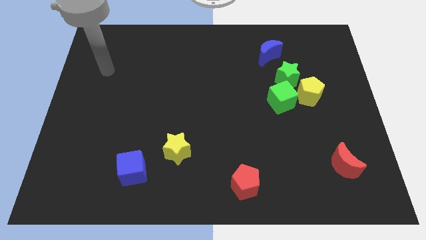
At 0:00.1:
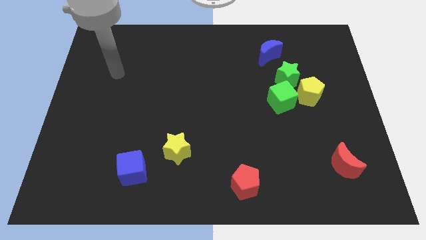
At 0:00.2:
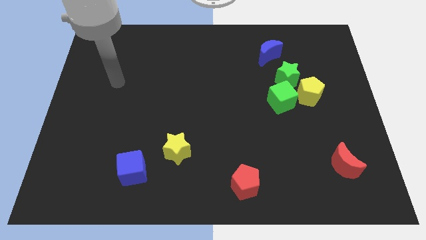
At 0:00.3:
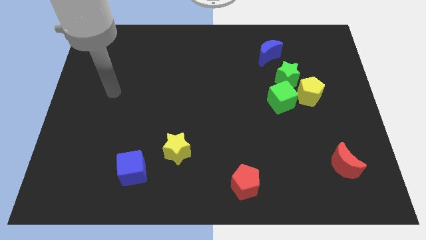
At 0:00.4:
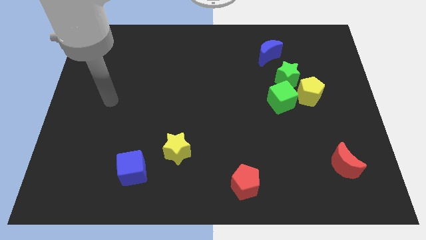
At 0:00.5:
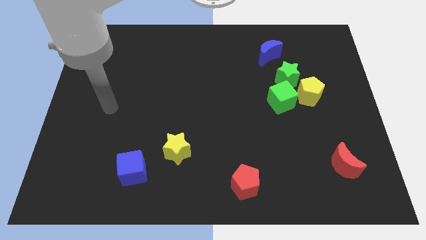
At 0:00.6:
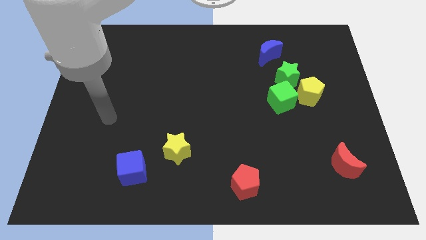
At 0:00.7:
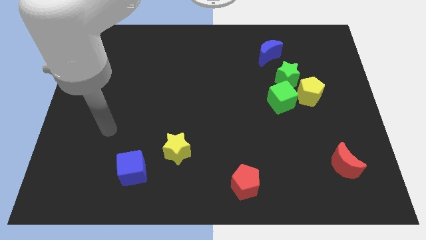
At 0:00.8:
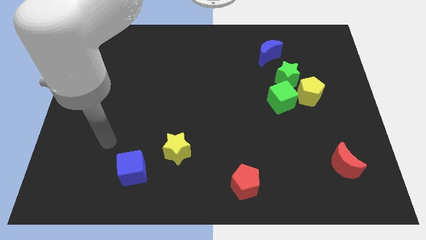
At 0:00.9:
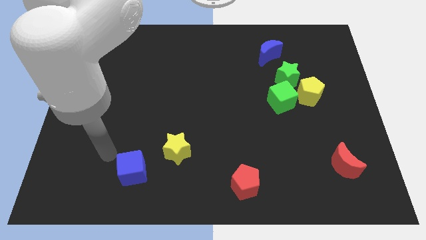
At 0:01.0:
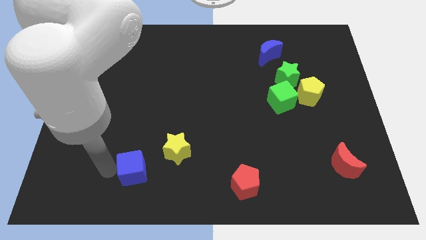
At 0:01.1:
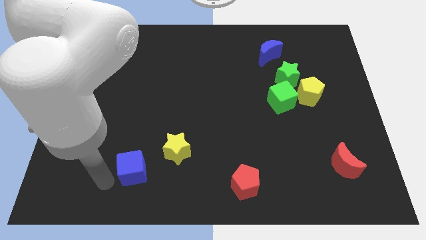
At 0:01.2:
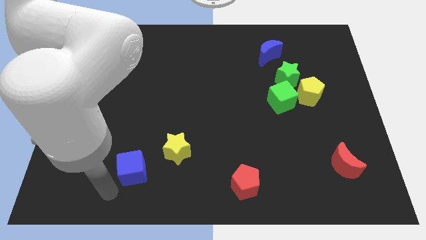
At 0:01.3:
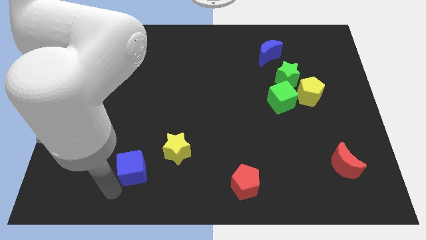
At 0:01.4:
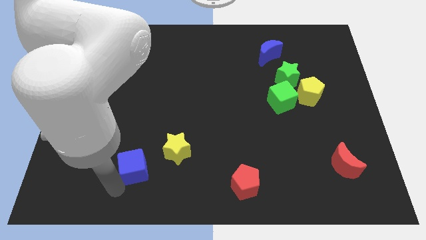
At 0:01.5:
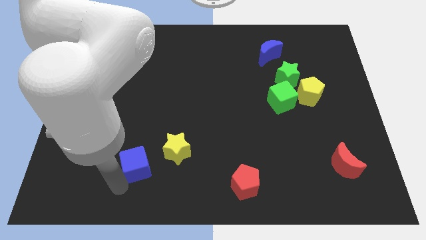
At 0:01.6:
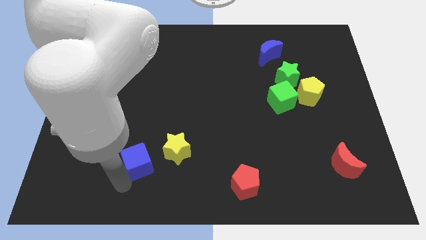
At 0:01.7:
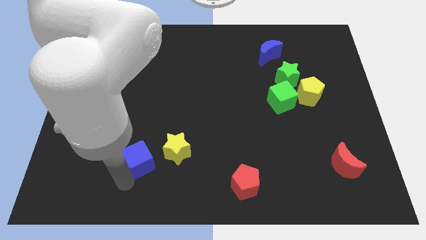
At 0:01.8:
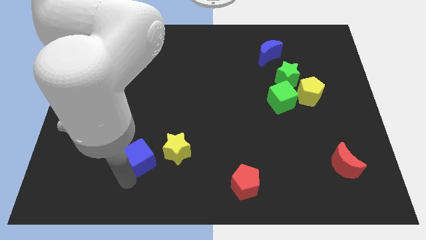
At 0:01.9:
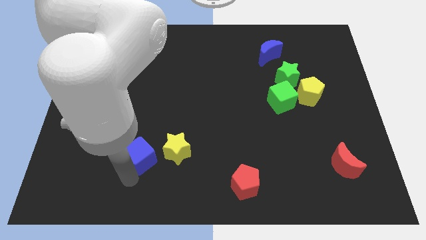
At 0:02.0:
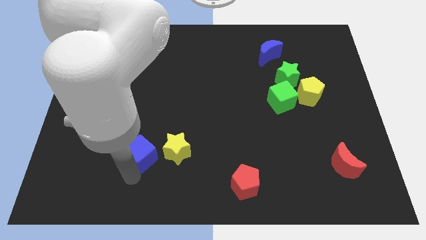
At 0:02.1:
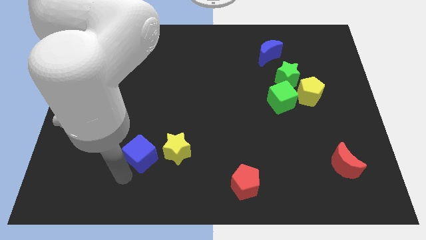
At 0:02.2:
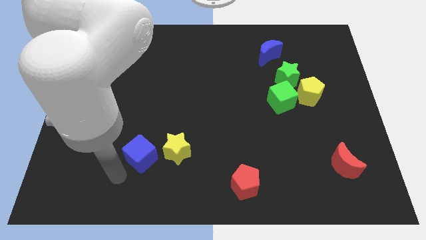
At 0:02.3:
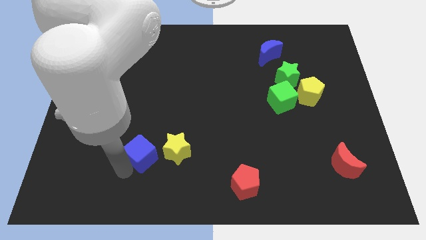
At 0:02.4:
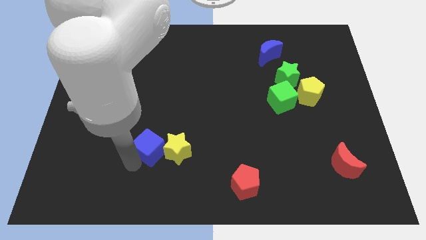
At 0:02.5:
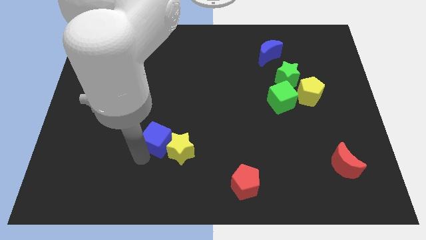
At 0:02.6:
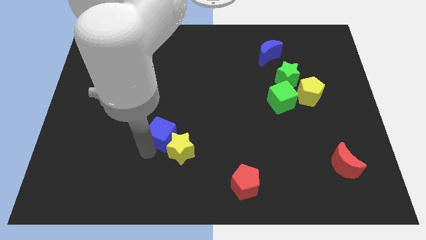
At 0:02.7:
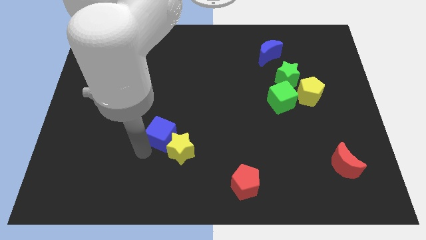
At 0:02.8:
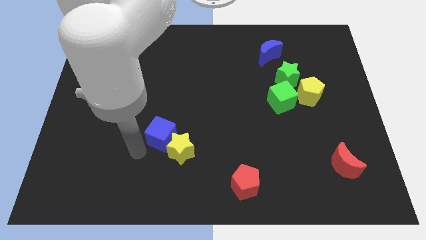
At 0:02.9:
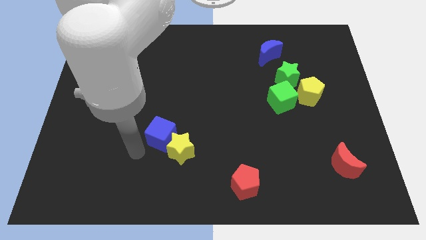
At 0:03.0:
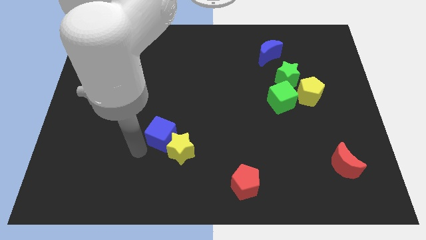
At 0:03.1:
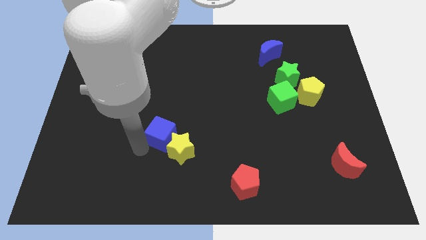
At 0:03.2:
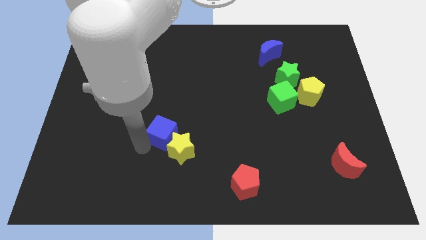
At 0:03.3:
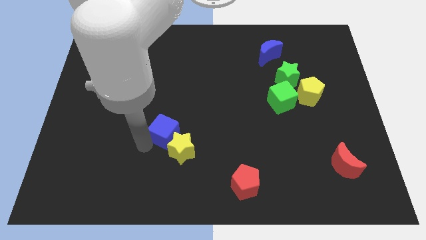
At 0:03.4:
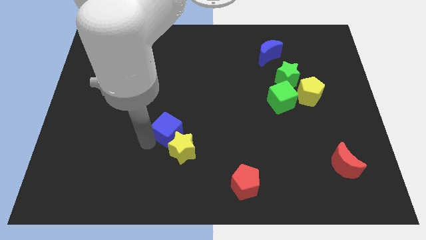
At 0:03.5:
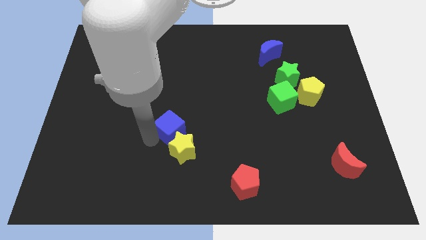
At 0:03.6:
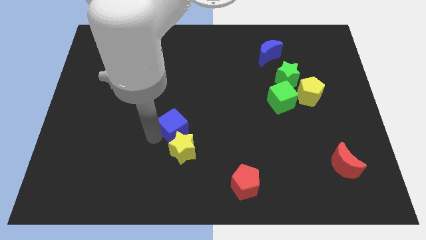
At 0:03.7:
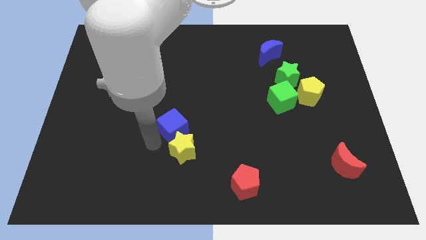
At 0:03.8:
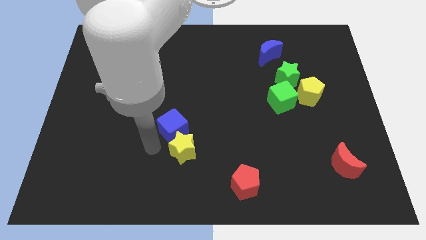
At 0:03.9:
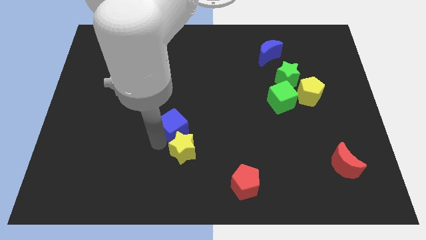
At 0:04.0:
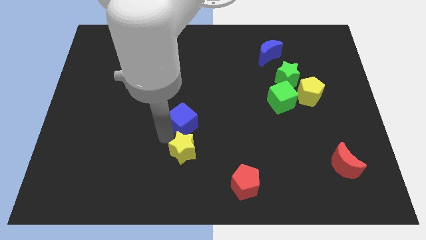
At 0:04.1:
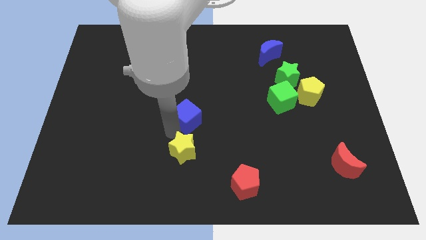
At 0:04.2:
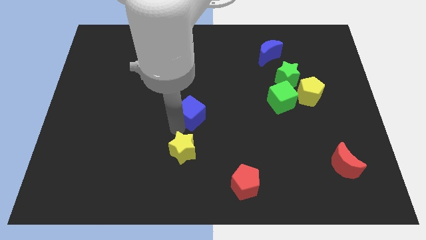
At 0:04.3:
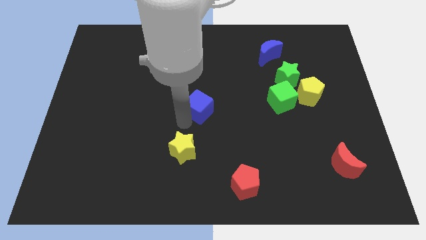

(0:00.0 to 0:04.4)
move the blue cube upwards and right

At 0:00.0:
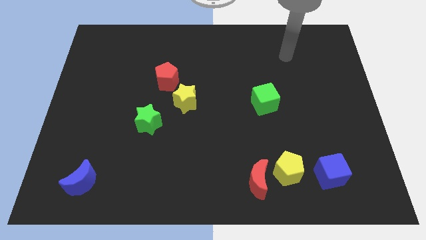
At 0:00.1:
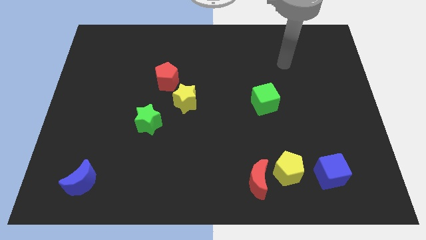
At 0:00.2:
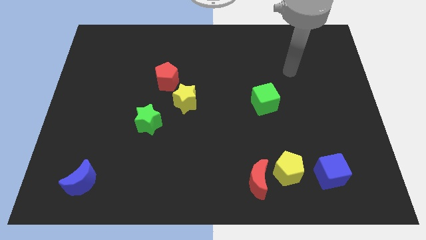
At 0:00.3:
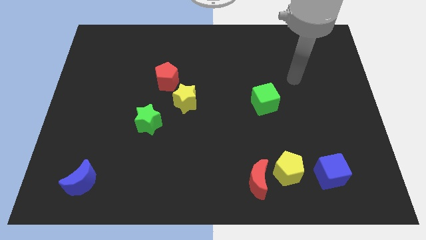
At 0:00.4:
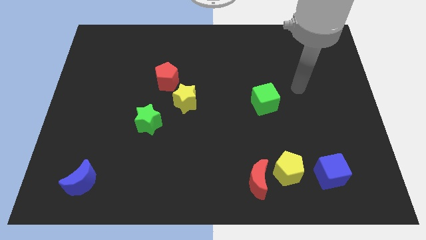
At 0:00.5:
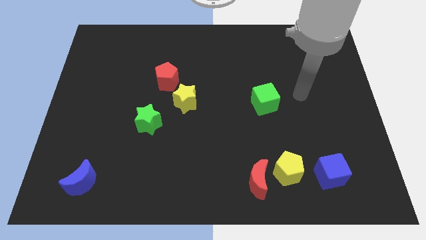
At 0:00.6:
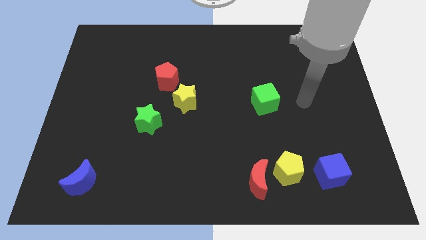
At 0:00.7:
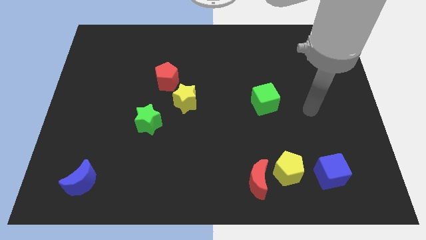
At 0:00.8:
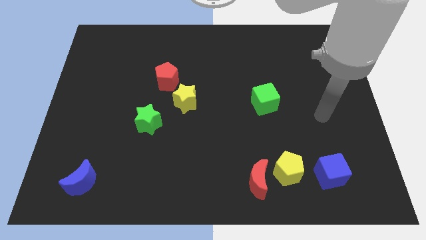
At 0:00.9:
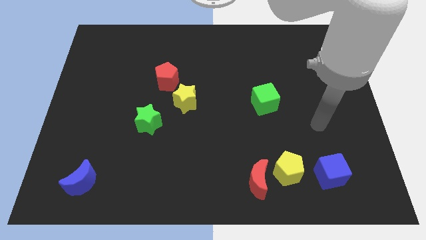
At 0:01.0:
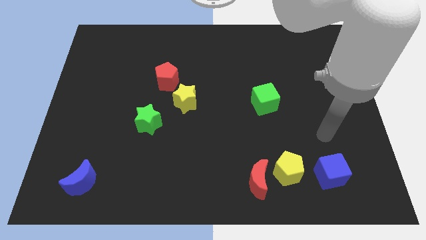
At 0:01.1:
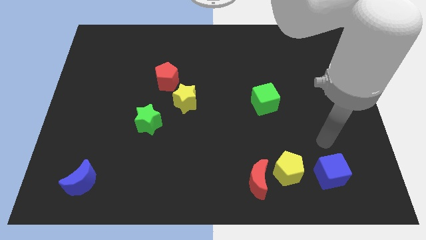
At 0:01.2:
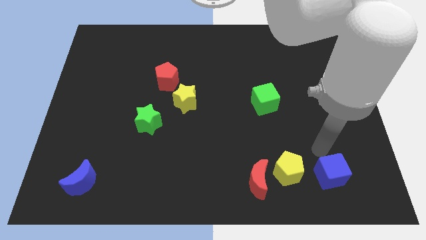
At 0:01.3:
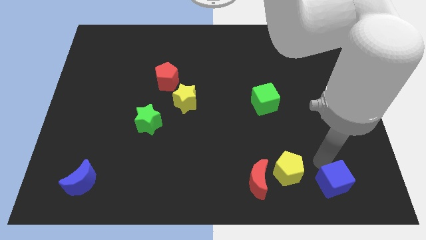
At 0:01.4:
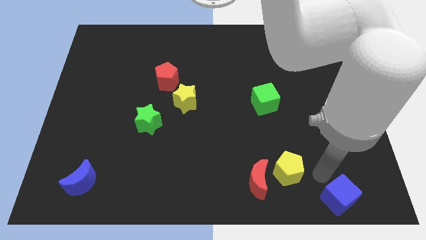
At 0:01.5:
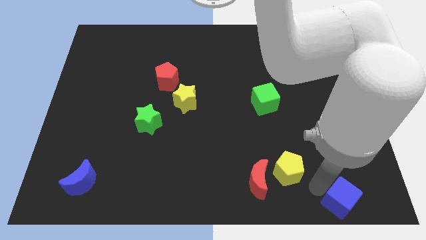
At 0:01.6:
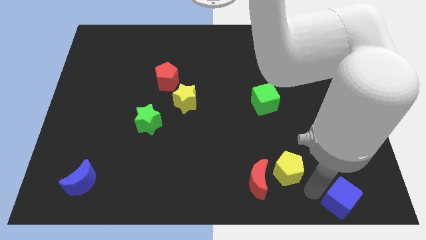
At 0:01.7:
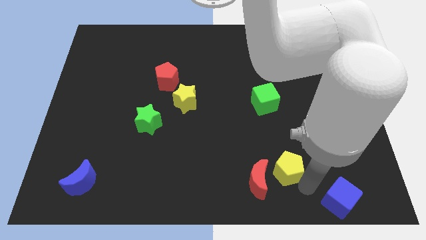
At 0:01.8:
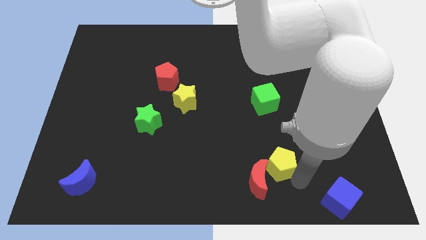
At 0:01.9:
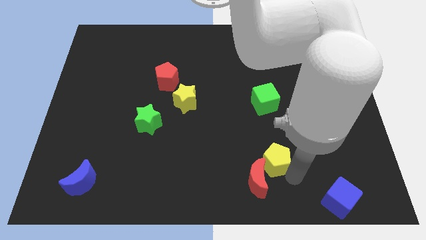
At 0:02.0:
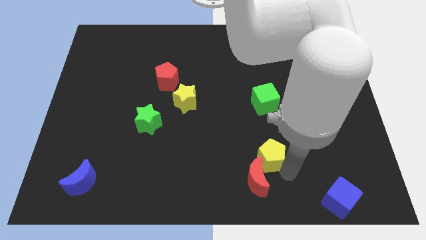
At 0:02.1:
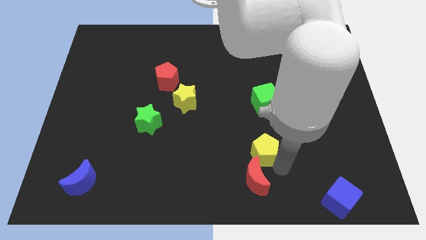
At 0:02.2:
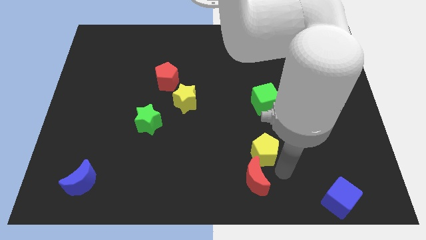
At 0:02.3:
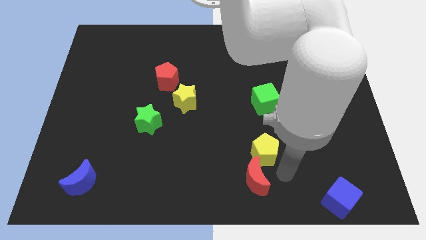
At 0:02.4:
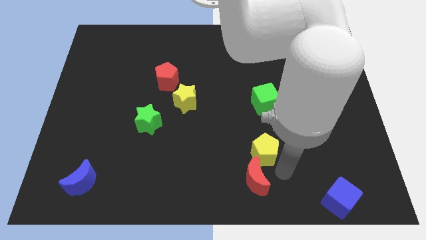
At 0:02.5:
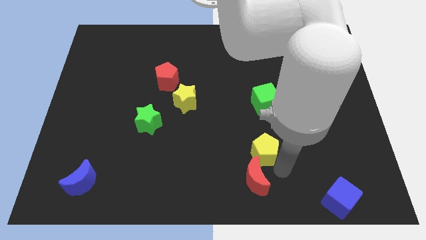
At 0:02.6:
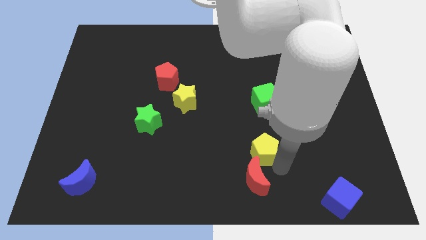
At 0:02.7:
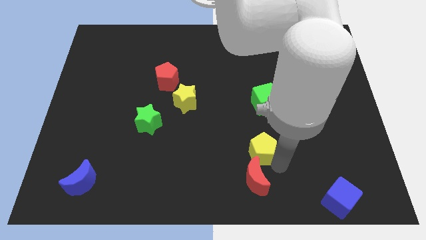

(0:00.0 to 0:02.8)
move the yellow pentagon upwards and then to the left somewhat

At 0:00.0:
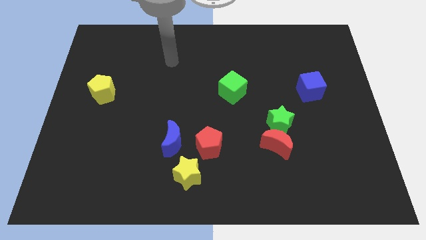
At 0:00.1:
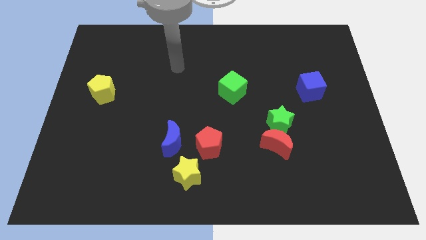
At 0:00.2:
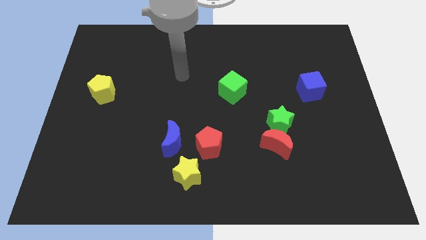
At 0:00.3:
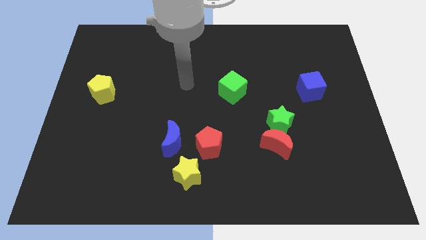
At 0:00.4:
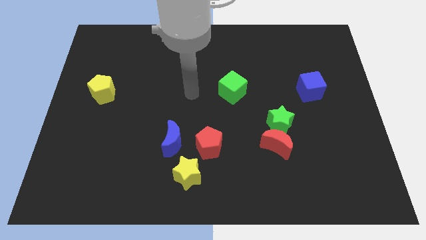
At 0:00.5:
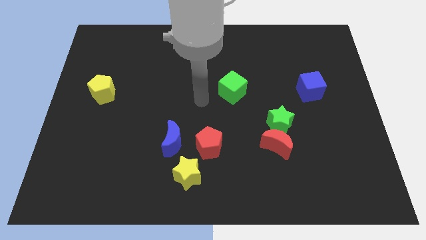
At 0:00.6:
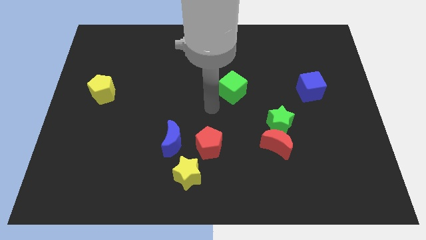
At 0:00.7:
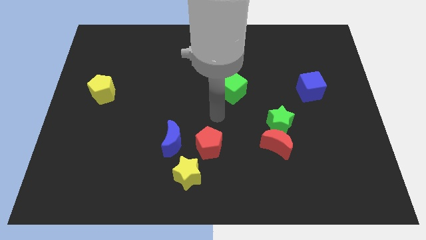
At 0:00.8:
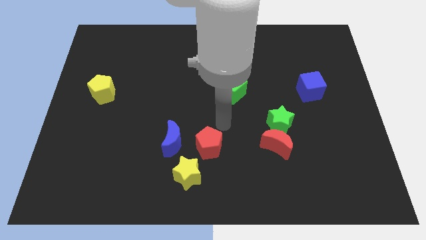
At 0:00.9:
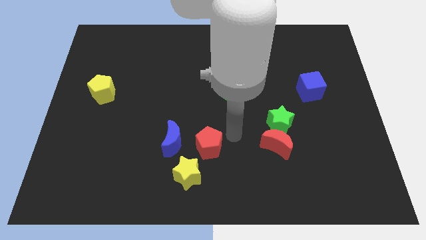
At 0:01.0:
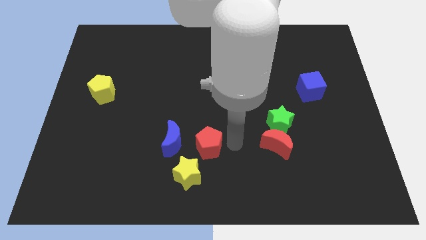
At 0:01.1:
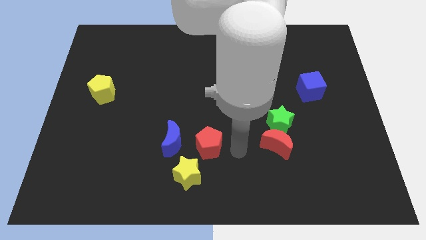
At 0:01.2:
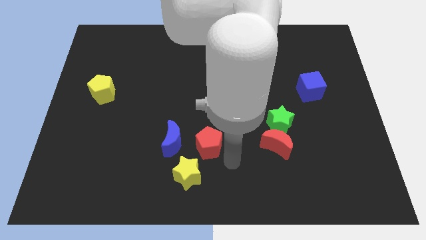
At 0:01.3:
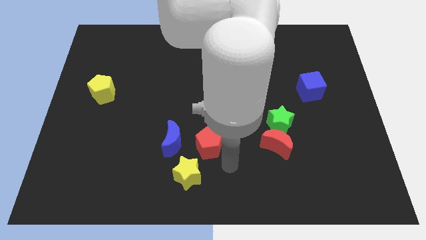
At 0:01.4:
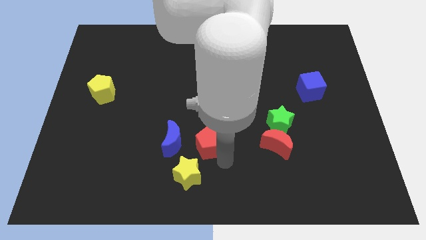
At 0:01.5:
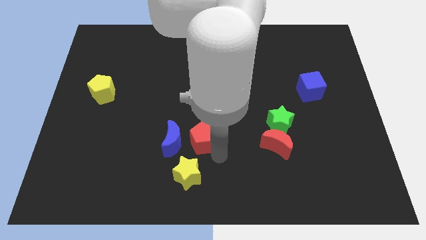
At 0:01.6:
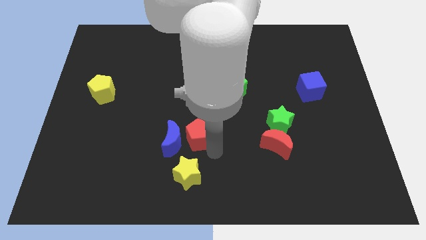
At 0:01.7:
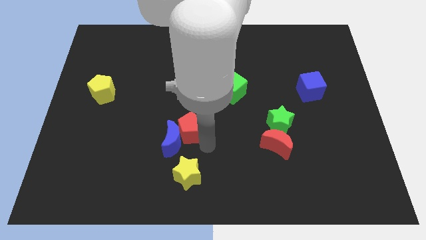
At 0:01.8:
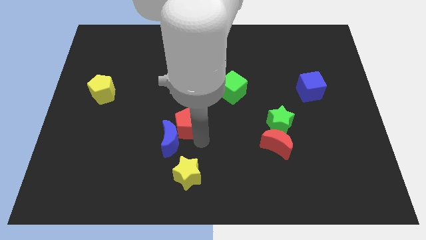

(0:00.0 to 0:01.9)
slightly push the red pentagon upwards and to the left diagonally
